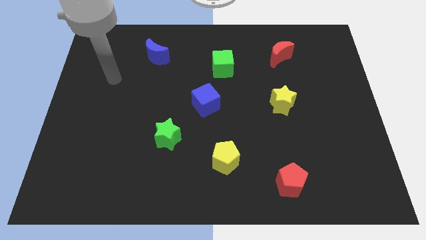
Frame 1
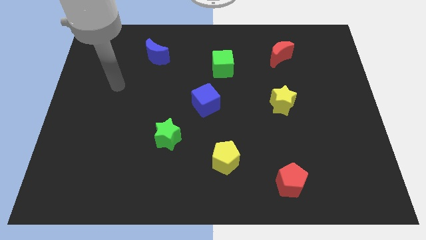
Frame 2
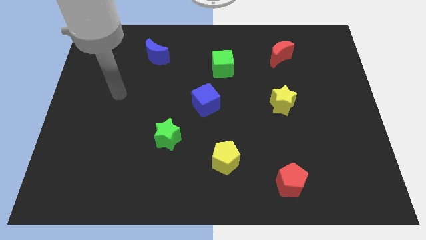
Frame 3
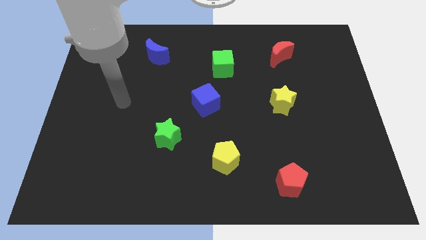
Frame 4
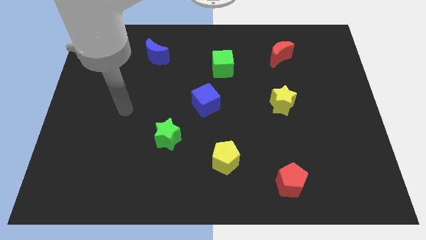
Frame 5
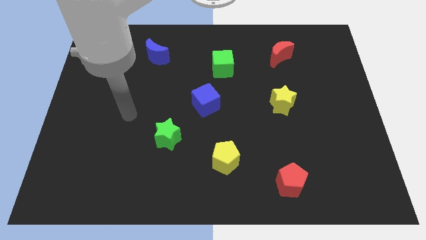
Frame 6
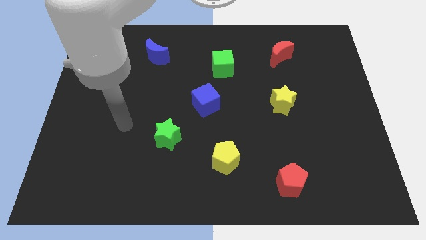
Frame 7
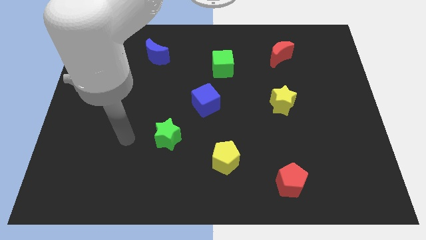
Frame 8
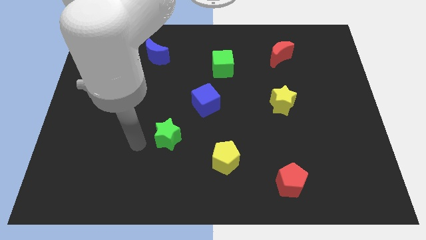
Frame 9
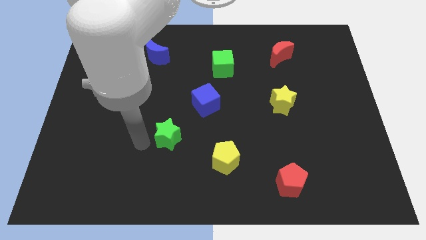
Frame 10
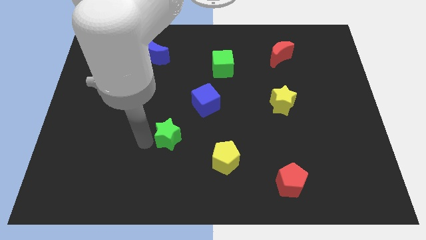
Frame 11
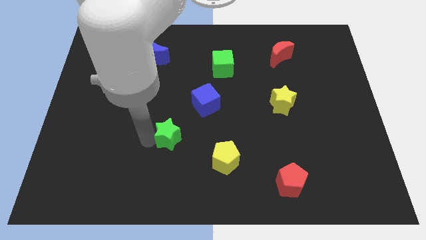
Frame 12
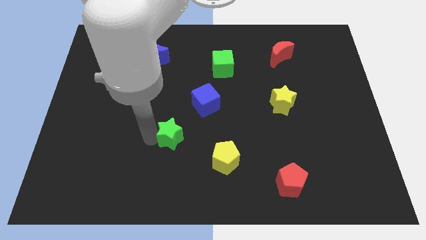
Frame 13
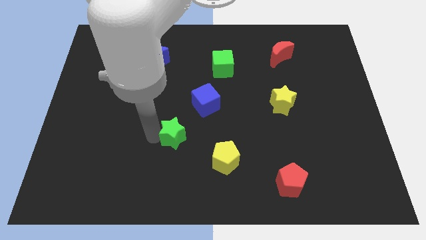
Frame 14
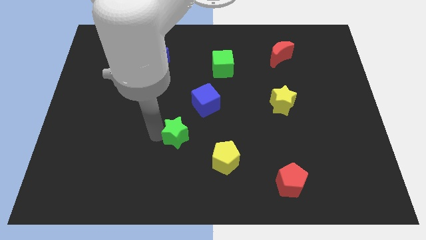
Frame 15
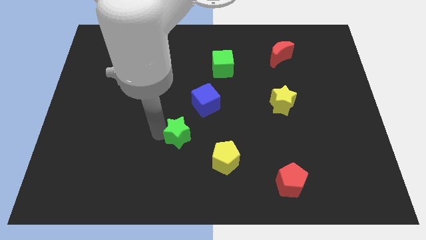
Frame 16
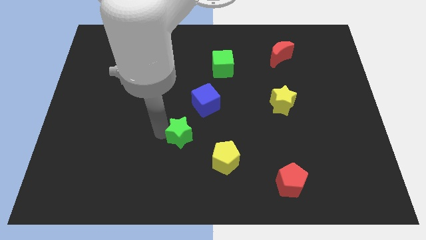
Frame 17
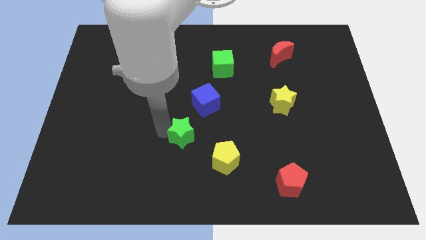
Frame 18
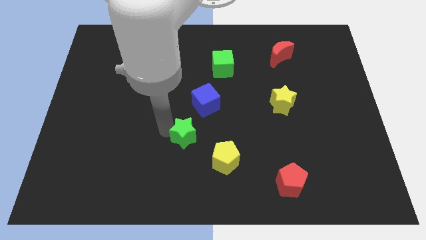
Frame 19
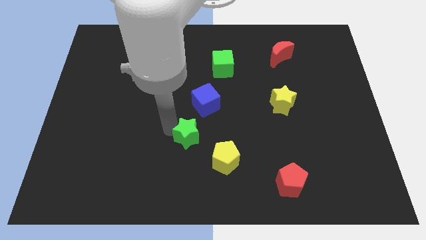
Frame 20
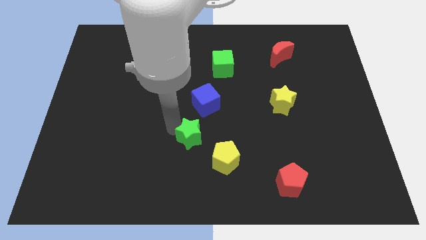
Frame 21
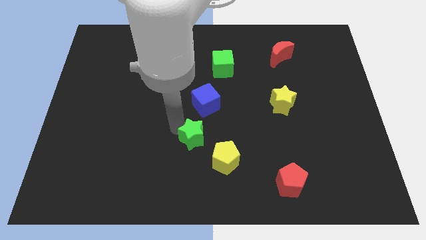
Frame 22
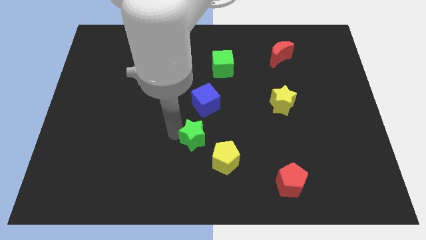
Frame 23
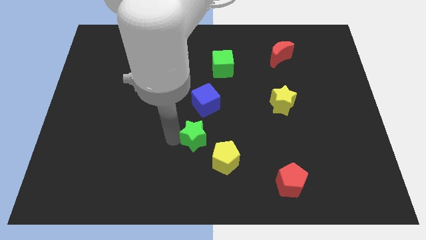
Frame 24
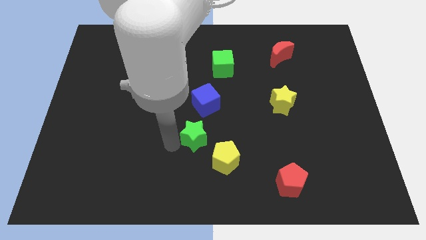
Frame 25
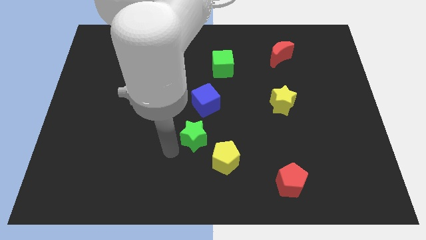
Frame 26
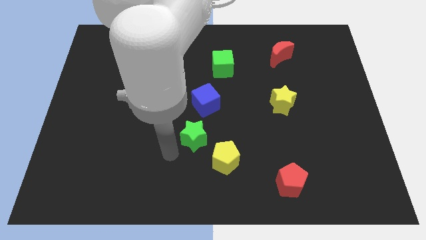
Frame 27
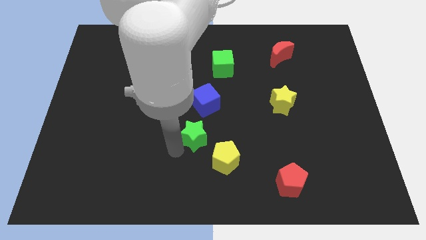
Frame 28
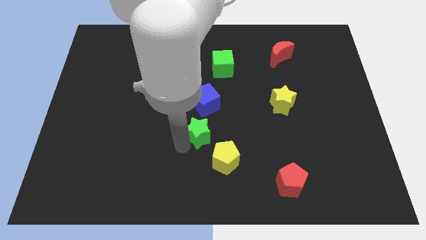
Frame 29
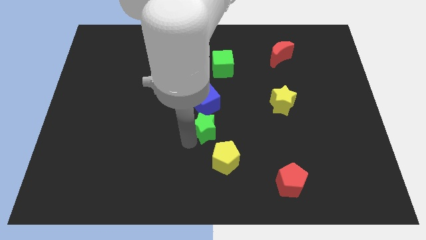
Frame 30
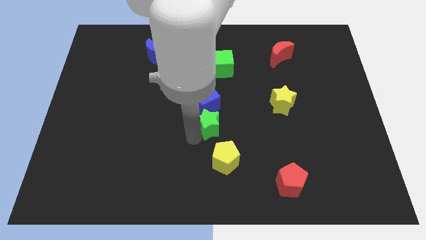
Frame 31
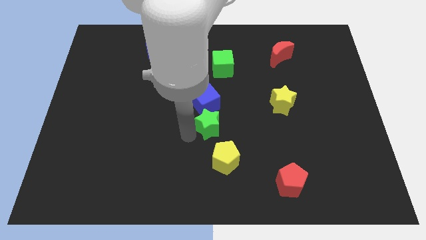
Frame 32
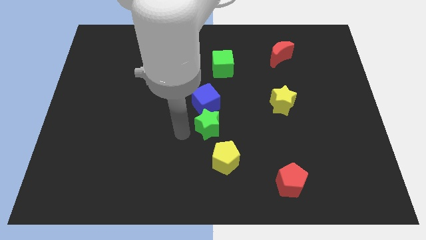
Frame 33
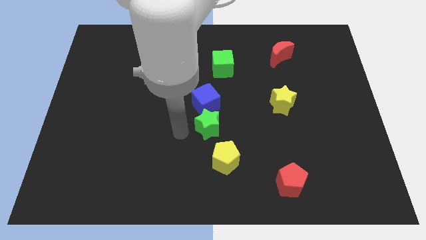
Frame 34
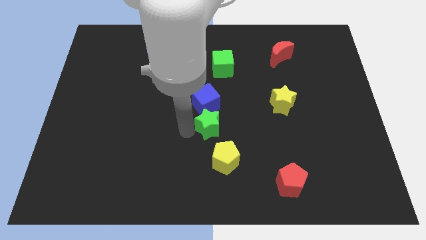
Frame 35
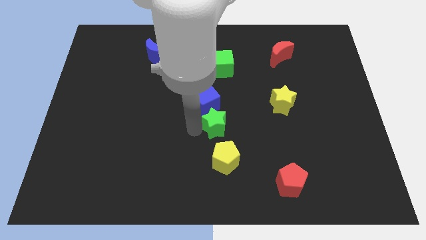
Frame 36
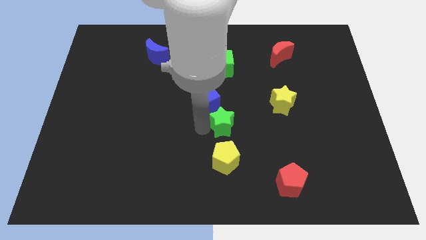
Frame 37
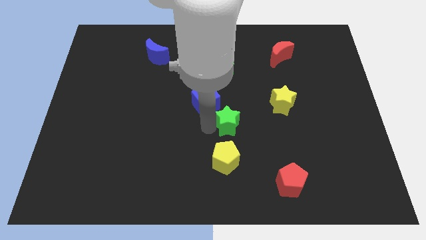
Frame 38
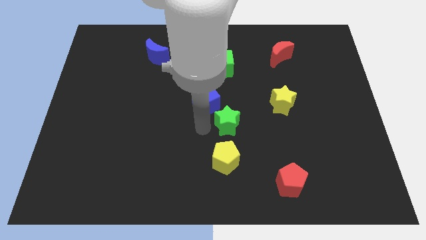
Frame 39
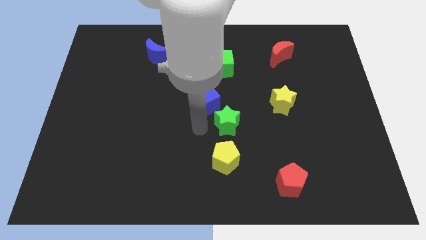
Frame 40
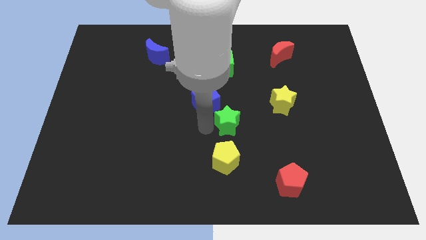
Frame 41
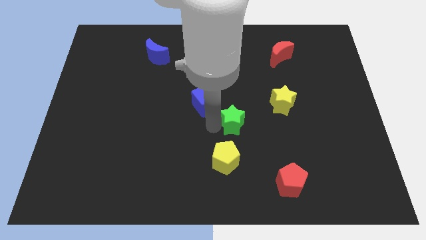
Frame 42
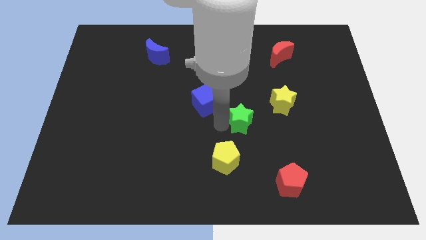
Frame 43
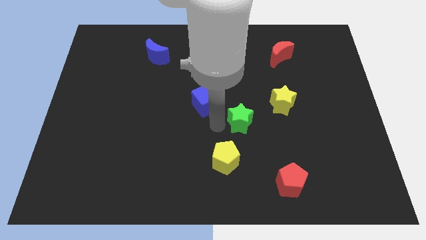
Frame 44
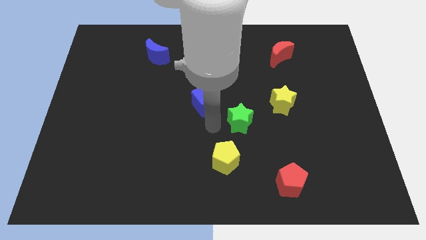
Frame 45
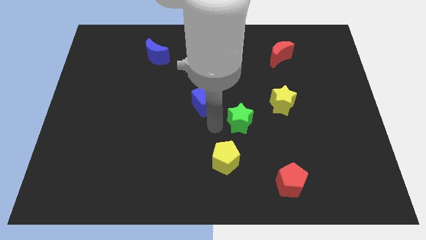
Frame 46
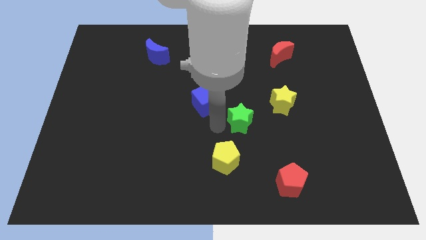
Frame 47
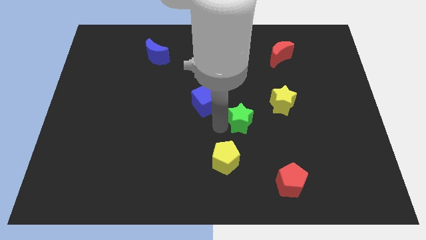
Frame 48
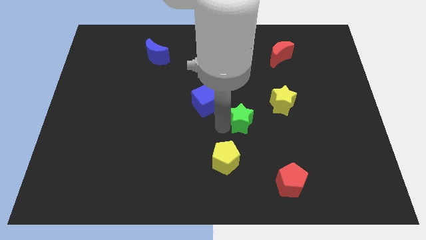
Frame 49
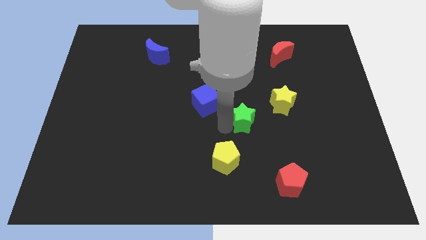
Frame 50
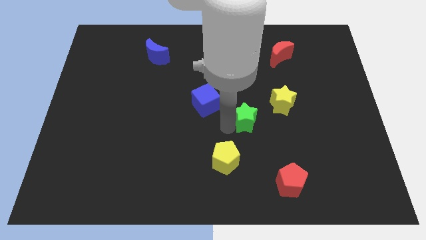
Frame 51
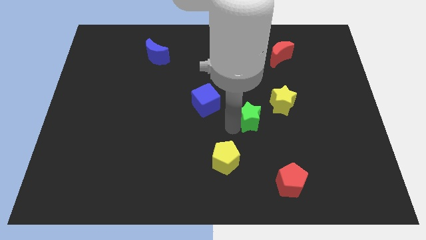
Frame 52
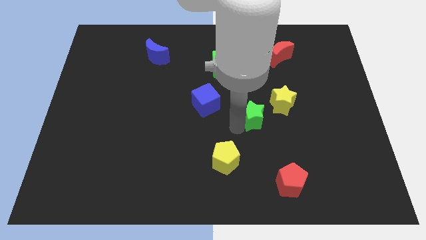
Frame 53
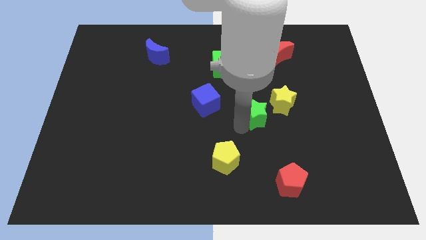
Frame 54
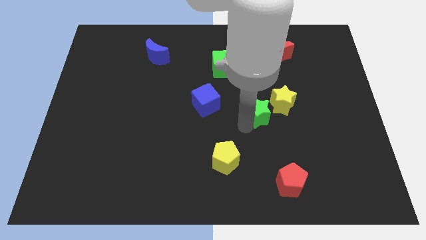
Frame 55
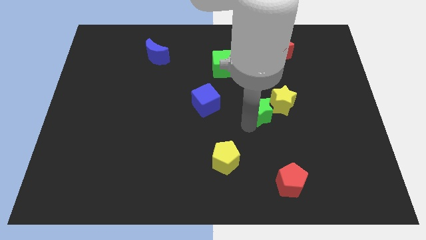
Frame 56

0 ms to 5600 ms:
push the green star next to the yellow star

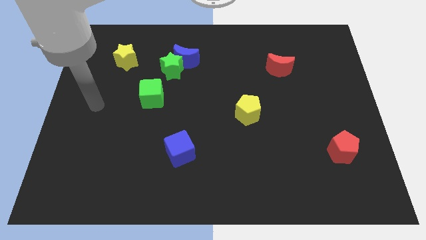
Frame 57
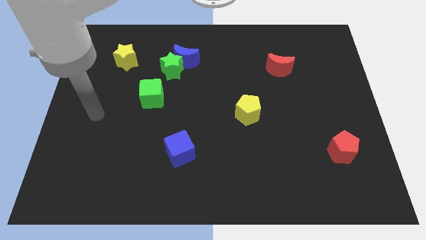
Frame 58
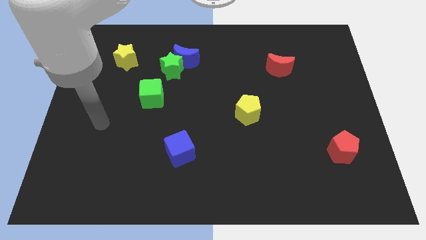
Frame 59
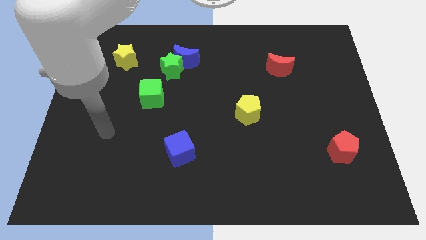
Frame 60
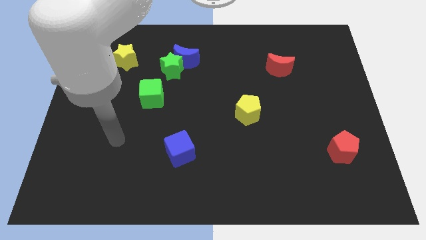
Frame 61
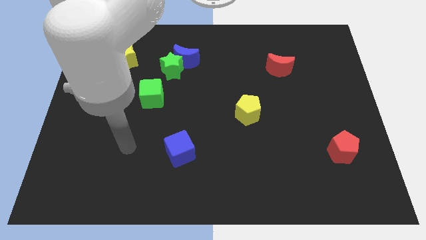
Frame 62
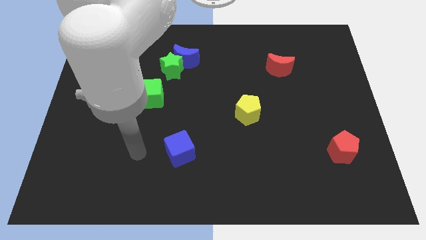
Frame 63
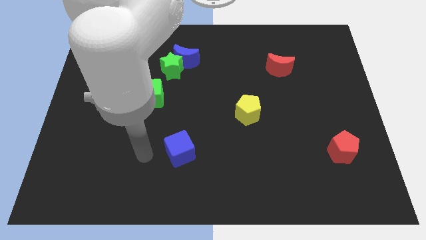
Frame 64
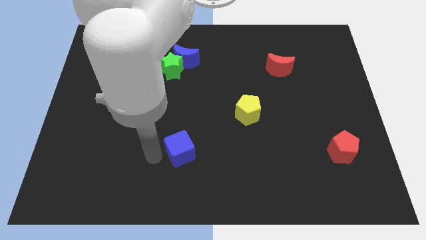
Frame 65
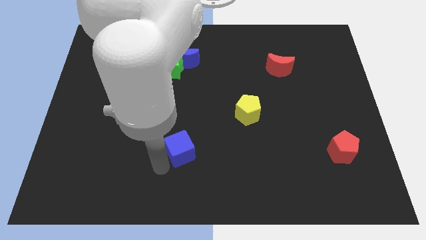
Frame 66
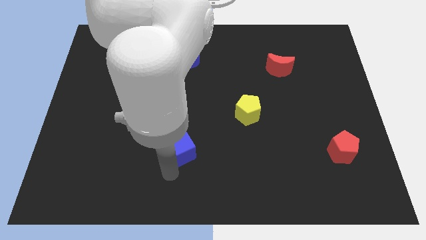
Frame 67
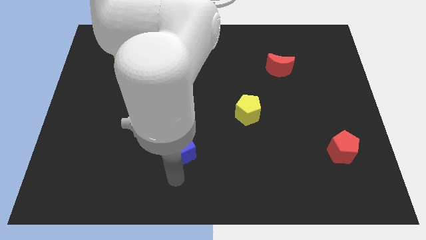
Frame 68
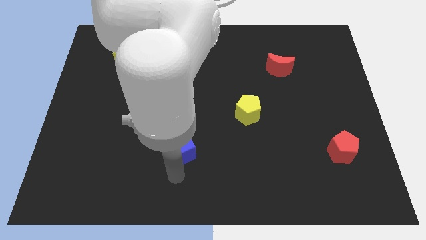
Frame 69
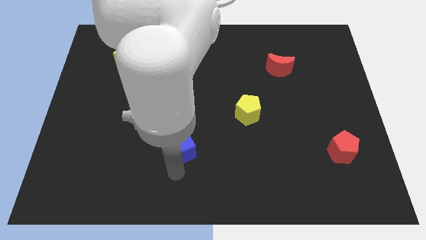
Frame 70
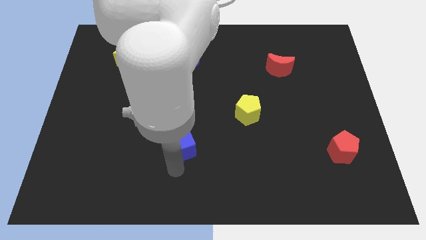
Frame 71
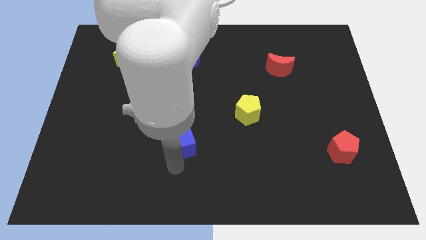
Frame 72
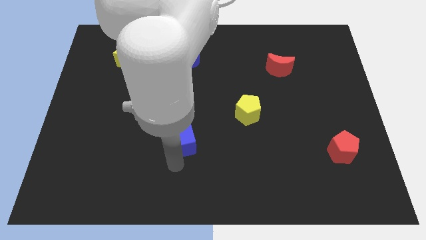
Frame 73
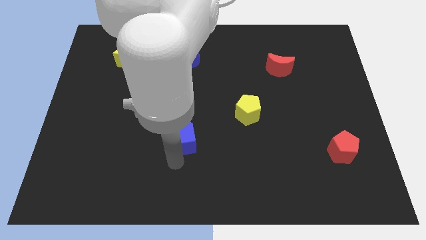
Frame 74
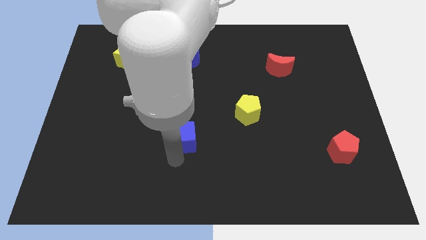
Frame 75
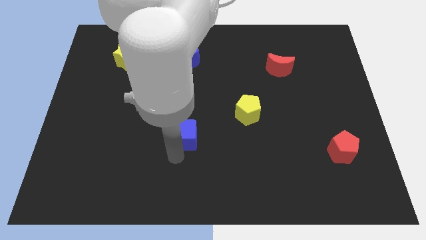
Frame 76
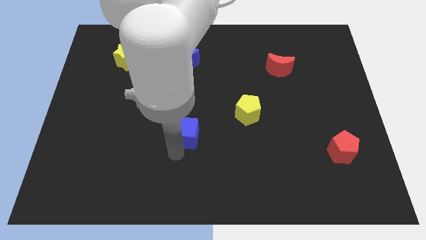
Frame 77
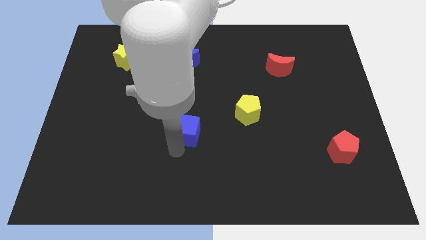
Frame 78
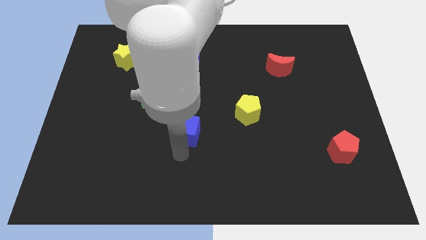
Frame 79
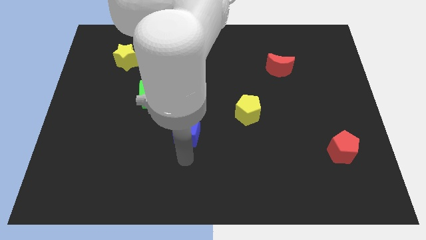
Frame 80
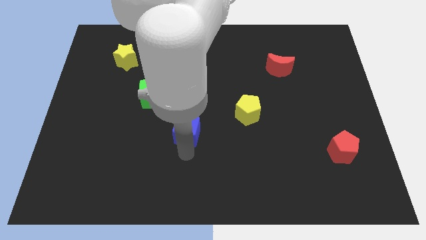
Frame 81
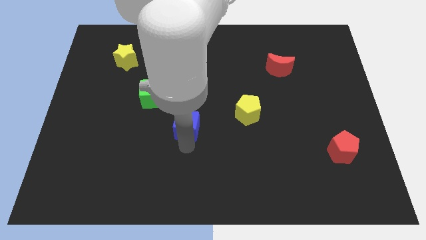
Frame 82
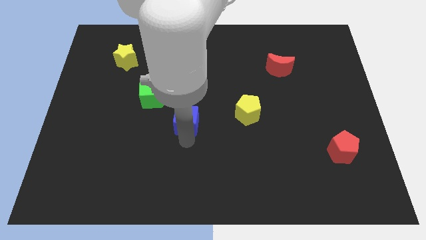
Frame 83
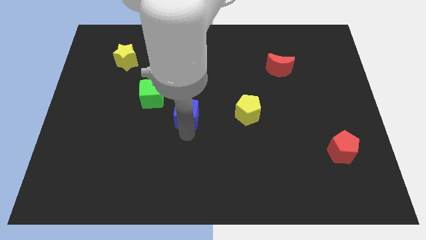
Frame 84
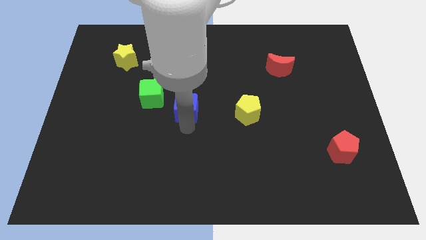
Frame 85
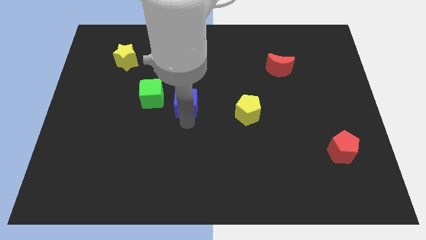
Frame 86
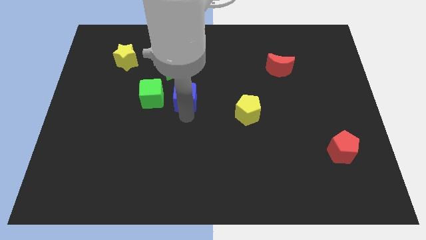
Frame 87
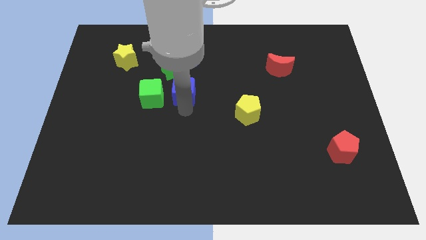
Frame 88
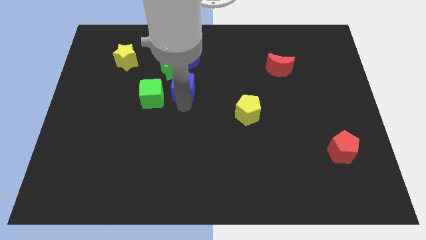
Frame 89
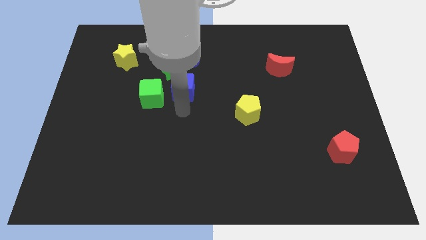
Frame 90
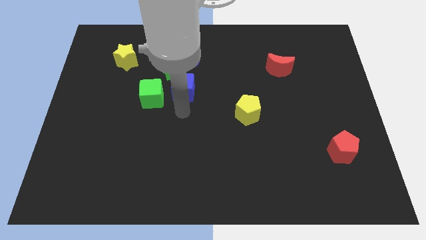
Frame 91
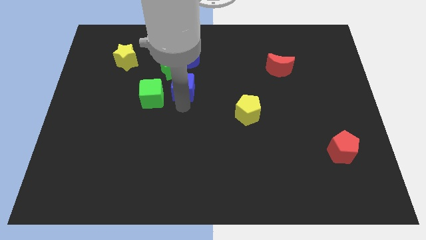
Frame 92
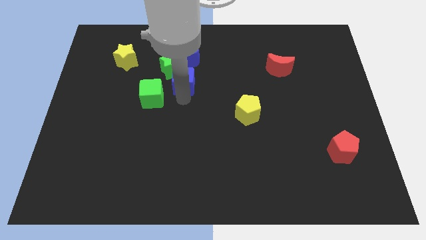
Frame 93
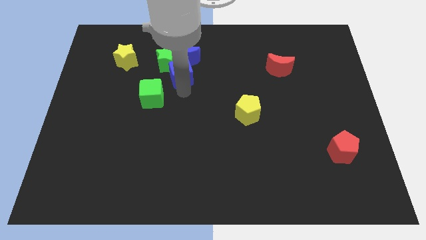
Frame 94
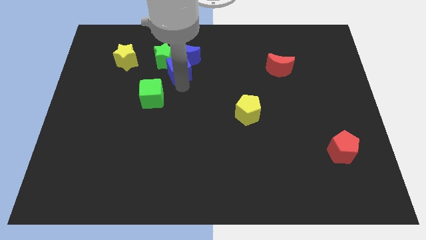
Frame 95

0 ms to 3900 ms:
move the blue cube towards the blue moon
